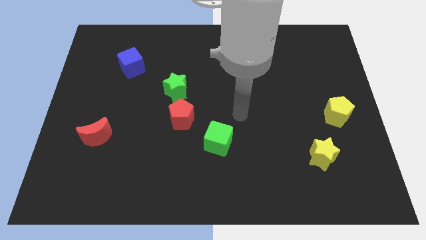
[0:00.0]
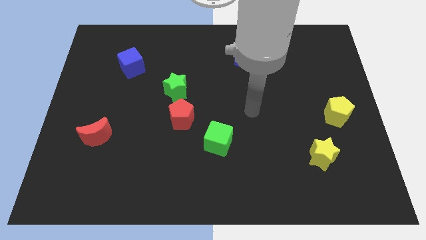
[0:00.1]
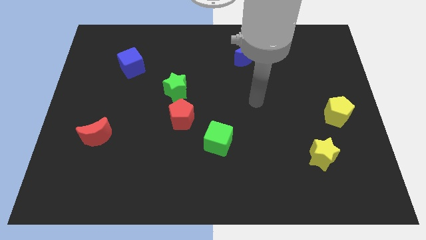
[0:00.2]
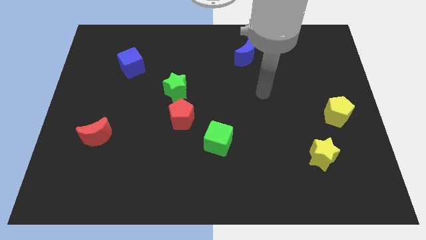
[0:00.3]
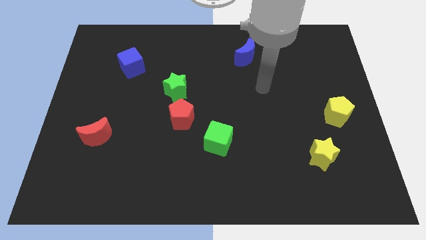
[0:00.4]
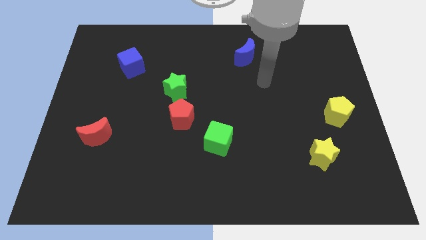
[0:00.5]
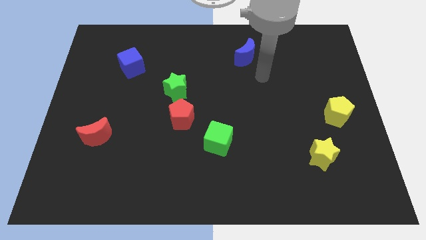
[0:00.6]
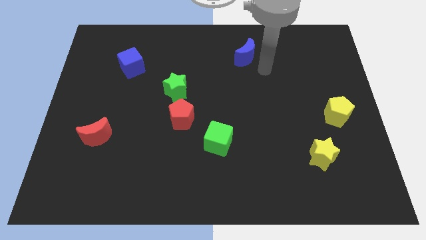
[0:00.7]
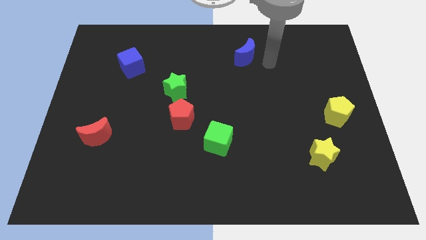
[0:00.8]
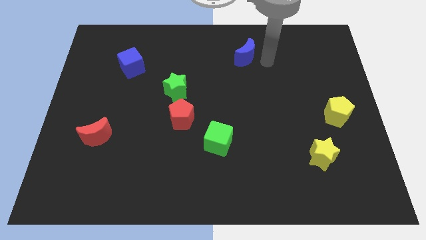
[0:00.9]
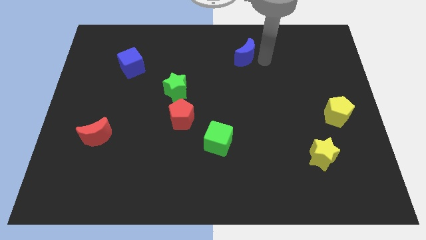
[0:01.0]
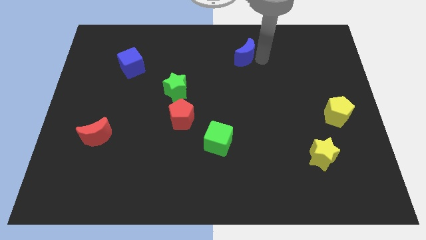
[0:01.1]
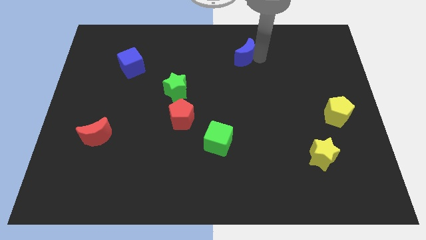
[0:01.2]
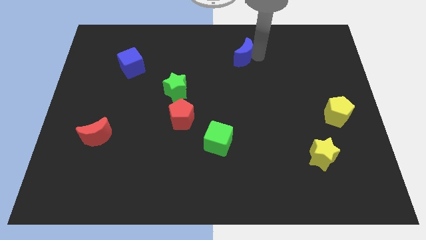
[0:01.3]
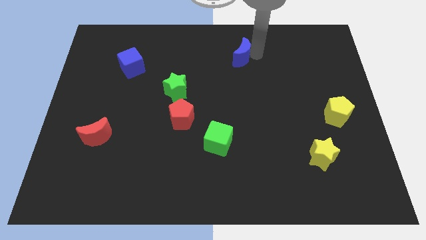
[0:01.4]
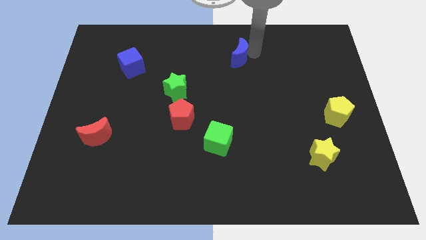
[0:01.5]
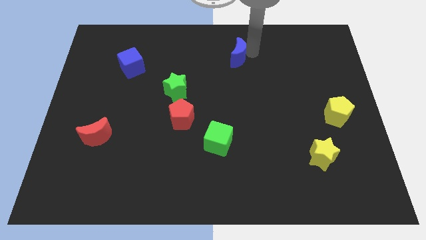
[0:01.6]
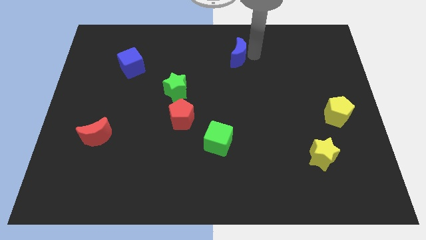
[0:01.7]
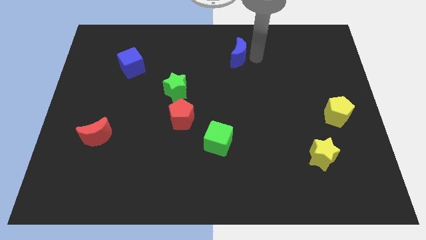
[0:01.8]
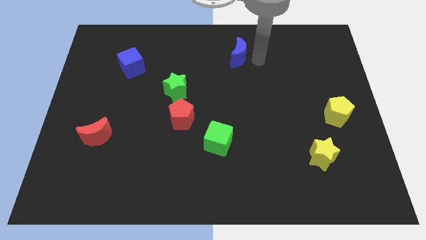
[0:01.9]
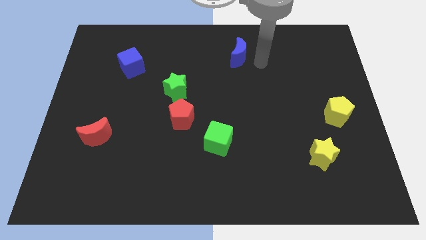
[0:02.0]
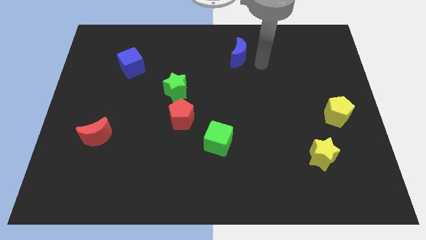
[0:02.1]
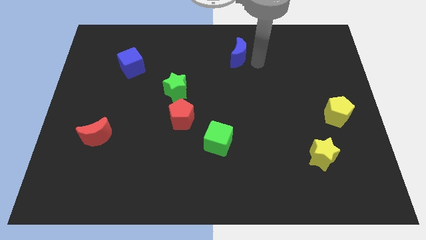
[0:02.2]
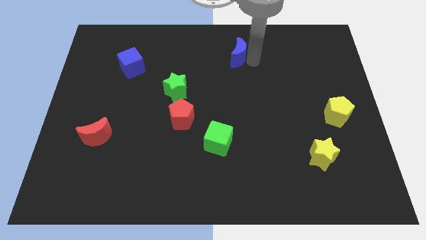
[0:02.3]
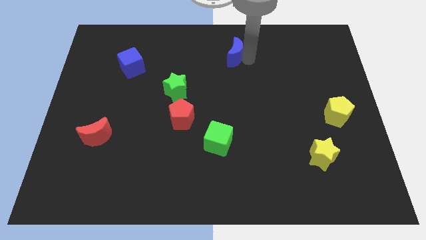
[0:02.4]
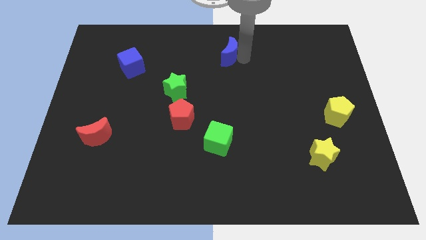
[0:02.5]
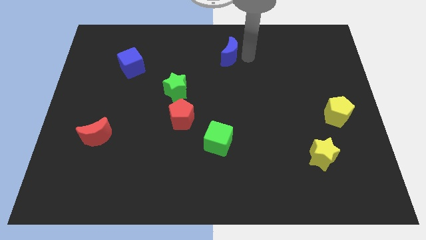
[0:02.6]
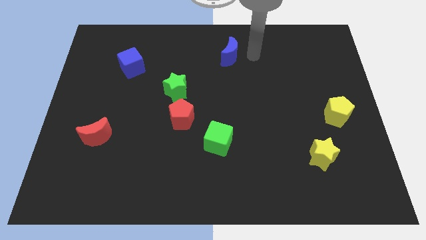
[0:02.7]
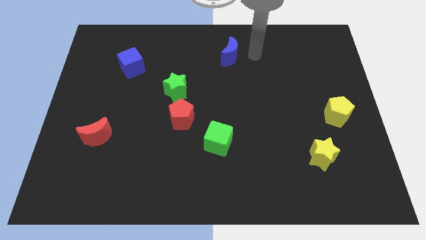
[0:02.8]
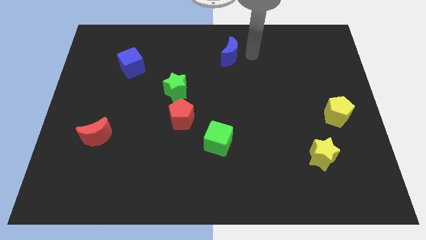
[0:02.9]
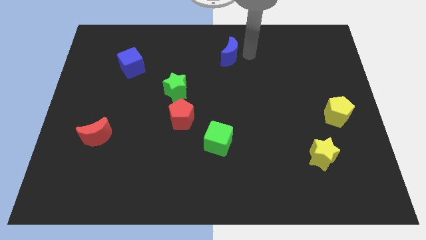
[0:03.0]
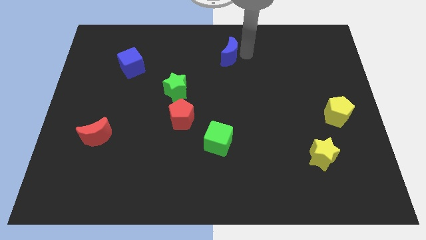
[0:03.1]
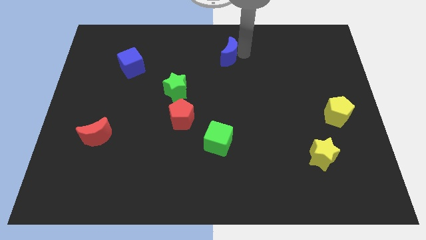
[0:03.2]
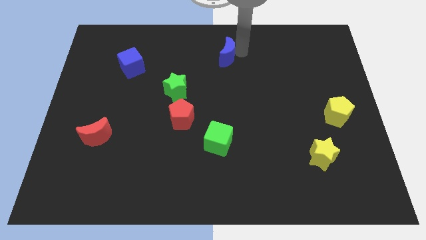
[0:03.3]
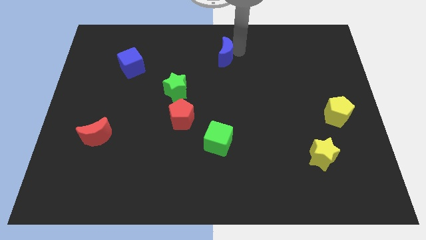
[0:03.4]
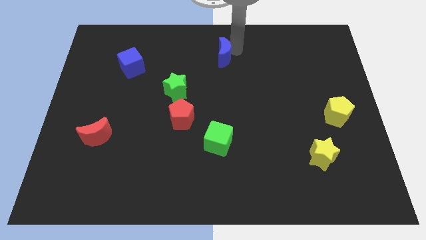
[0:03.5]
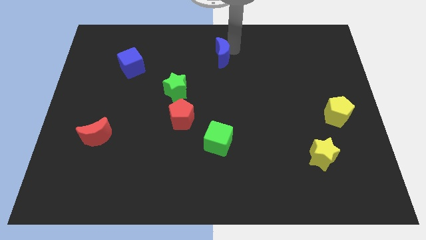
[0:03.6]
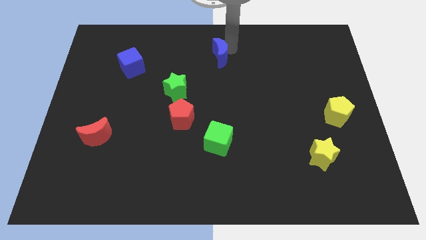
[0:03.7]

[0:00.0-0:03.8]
move the blue moon left somewhat

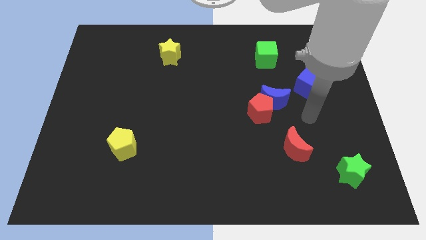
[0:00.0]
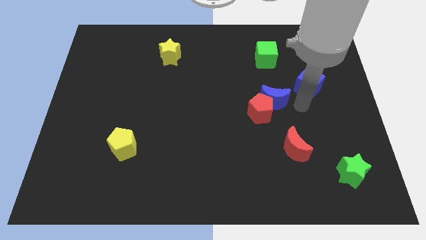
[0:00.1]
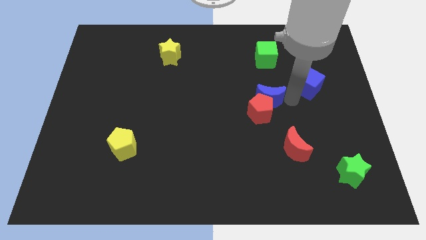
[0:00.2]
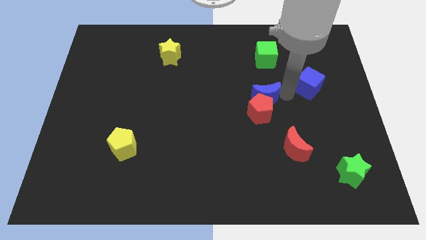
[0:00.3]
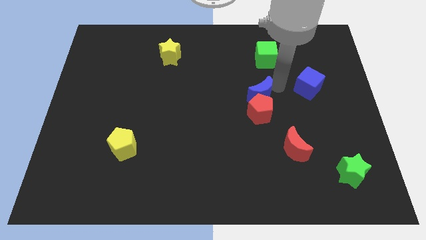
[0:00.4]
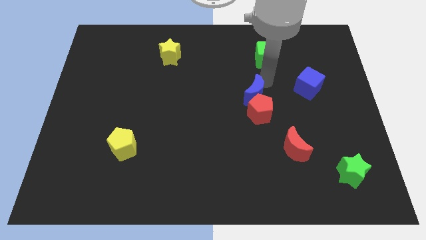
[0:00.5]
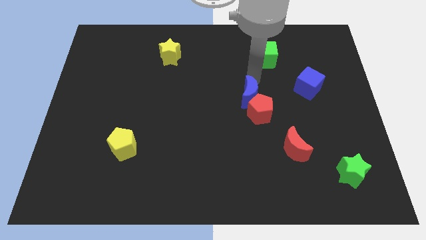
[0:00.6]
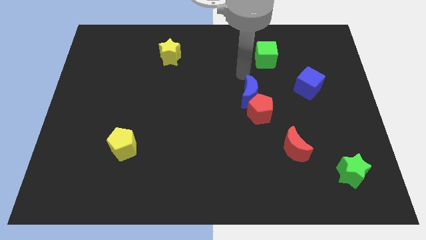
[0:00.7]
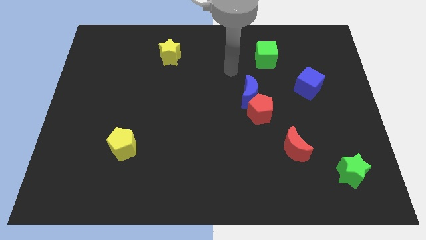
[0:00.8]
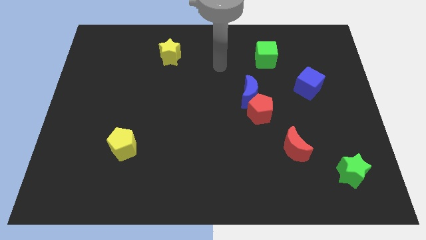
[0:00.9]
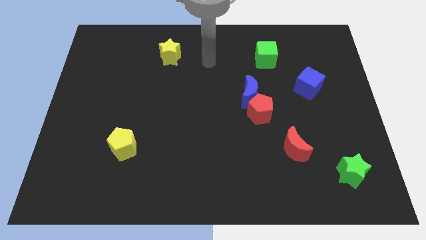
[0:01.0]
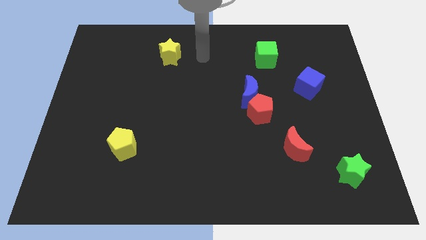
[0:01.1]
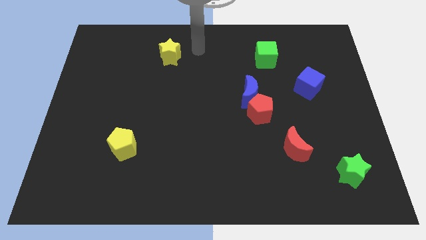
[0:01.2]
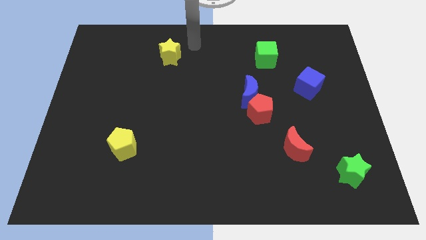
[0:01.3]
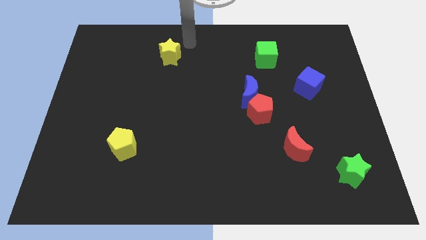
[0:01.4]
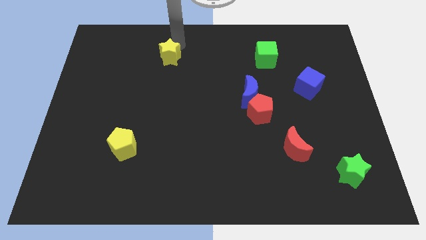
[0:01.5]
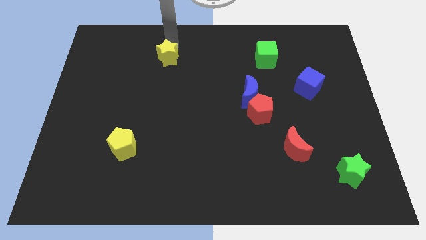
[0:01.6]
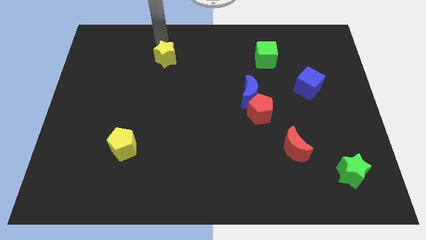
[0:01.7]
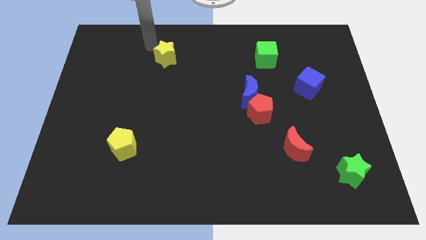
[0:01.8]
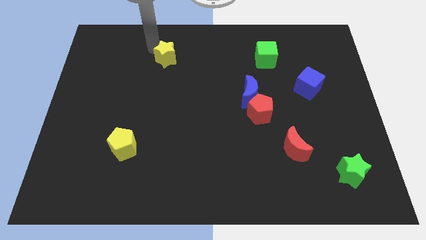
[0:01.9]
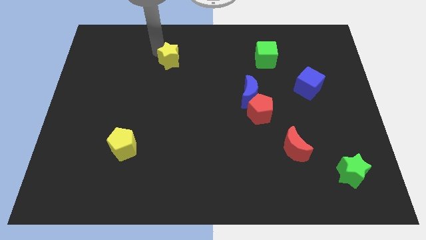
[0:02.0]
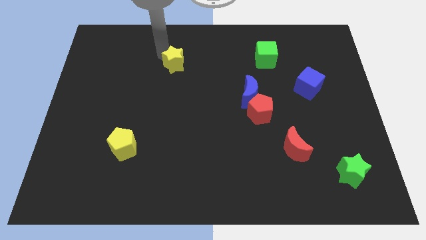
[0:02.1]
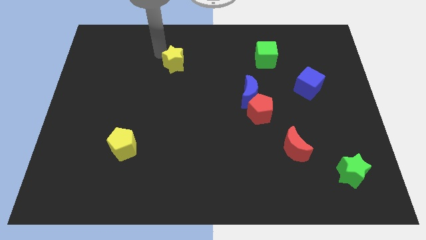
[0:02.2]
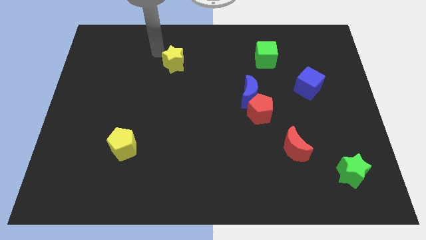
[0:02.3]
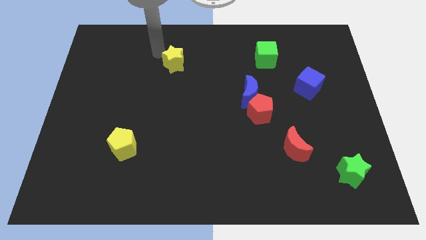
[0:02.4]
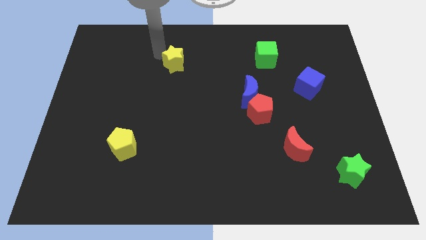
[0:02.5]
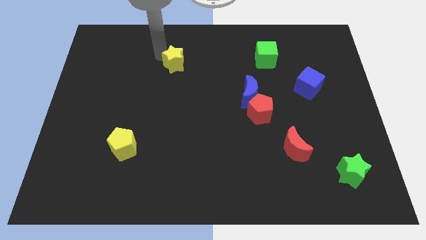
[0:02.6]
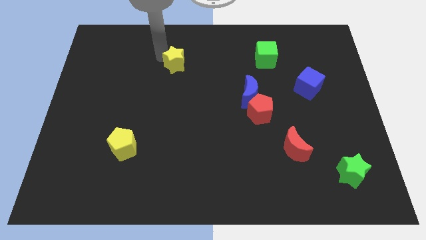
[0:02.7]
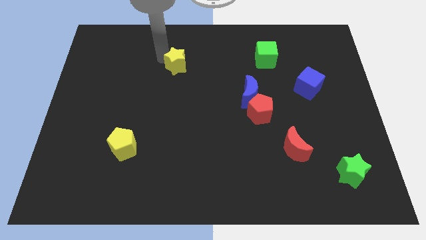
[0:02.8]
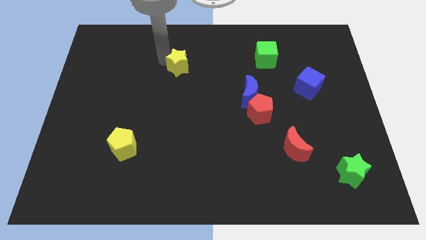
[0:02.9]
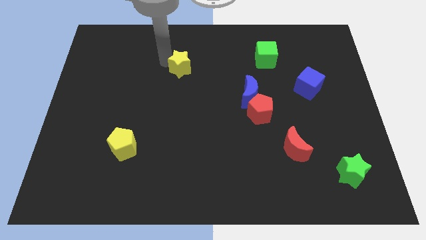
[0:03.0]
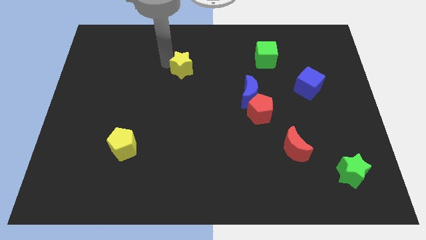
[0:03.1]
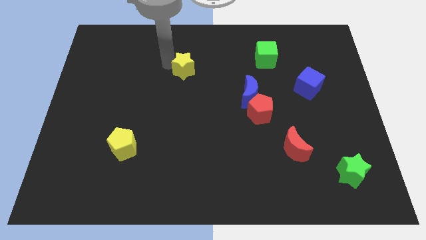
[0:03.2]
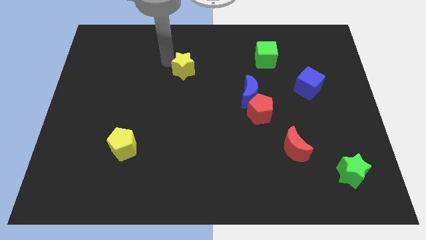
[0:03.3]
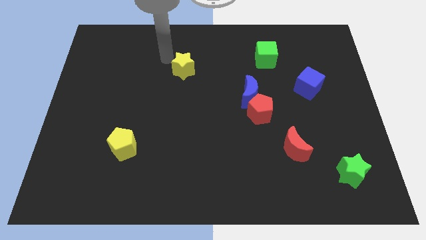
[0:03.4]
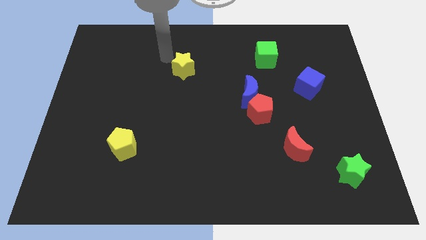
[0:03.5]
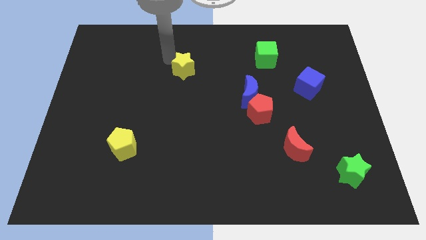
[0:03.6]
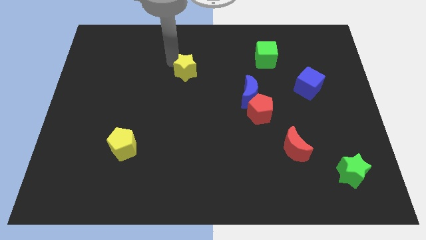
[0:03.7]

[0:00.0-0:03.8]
push the yellow star slightly downwards and then to the right

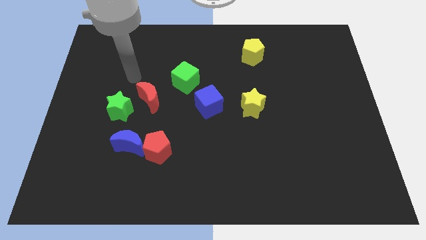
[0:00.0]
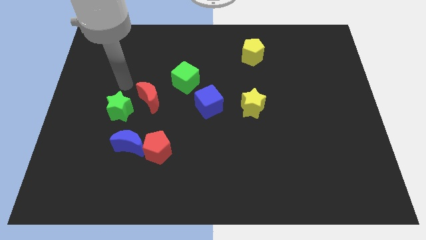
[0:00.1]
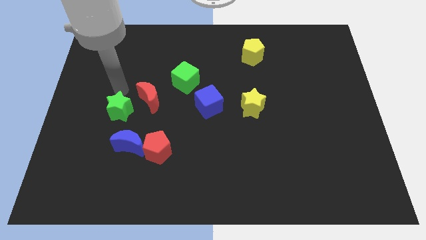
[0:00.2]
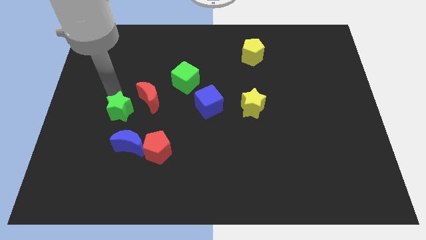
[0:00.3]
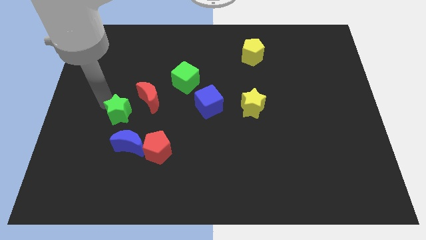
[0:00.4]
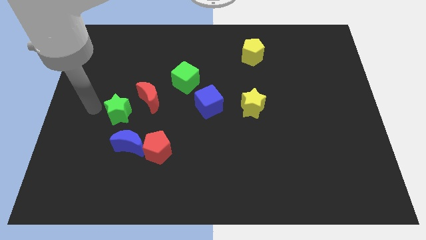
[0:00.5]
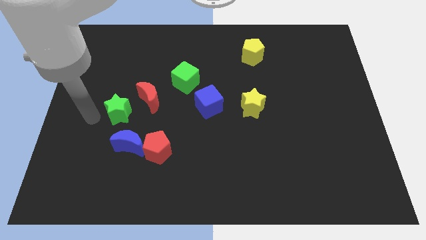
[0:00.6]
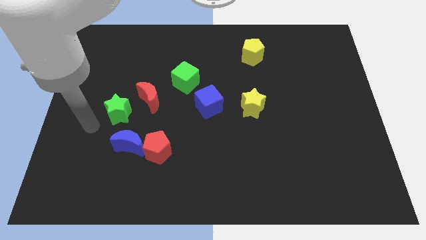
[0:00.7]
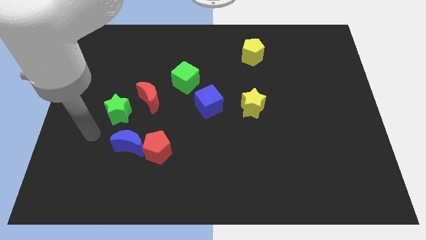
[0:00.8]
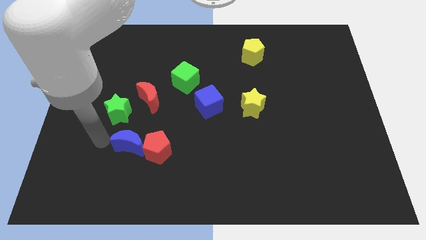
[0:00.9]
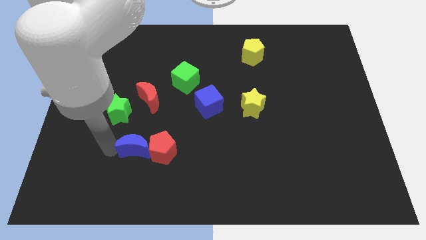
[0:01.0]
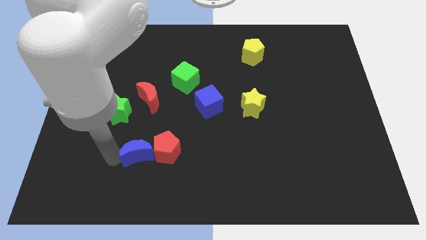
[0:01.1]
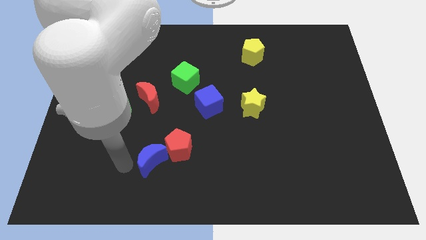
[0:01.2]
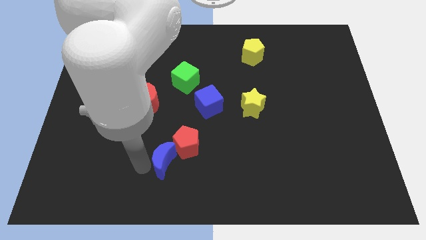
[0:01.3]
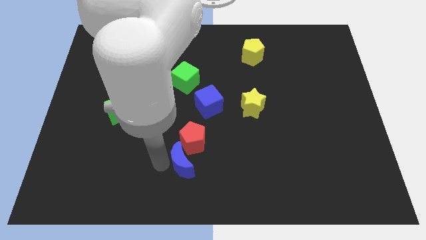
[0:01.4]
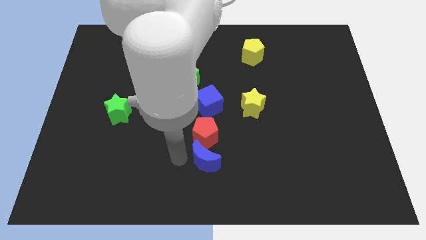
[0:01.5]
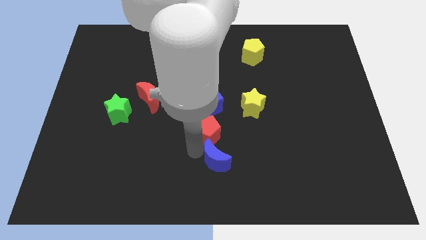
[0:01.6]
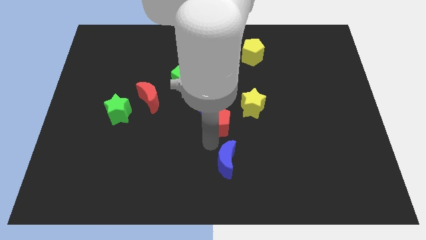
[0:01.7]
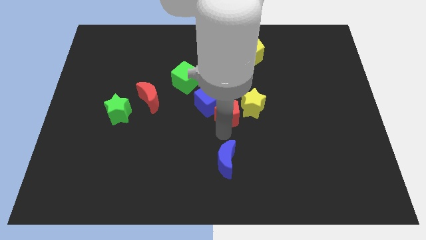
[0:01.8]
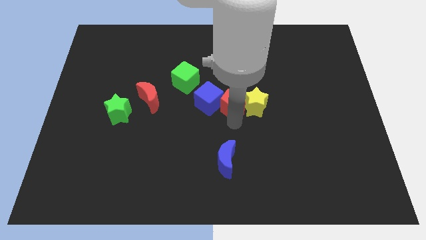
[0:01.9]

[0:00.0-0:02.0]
move the red pentagon upwards and to the right
